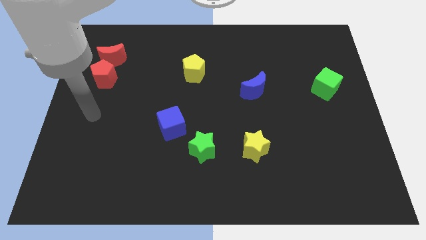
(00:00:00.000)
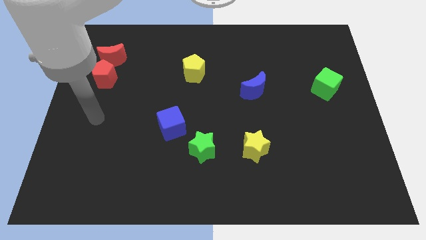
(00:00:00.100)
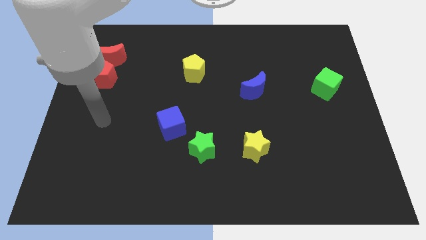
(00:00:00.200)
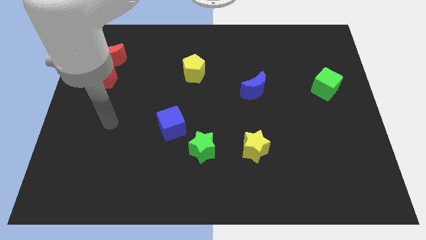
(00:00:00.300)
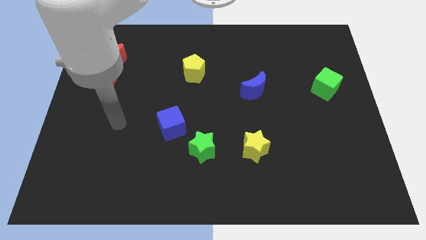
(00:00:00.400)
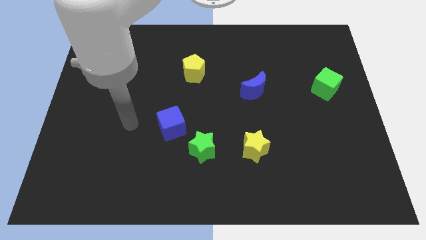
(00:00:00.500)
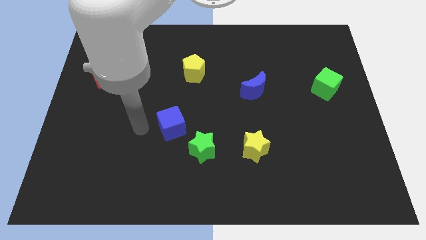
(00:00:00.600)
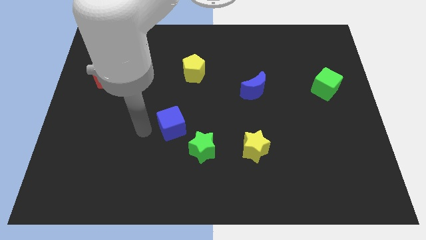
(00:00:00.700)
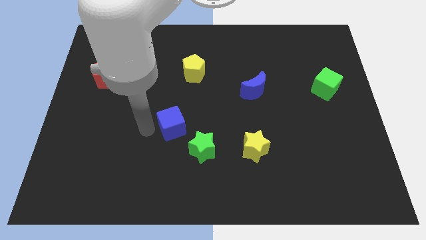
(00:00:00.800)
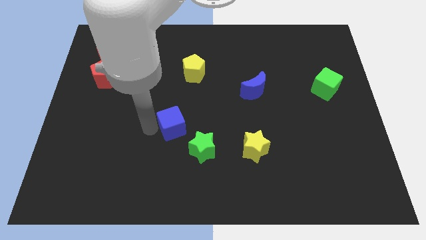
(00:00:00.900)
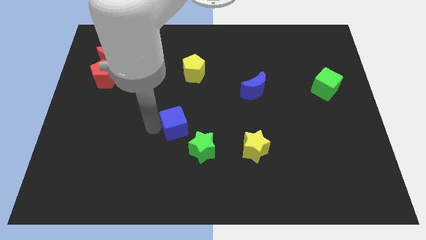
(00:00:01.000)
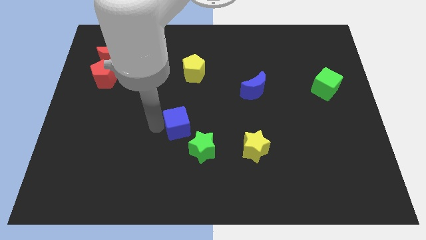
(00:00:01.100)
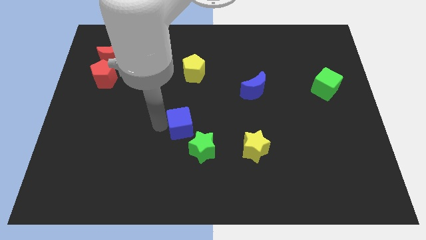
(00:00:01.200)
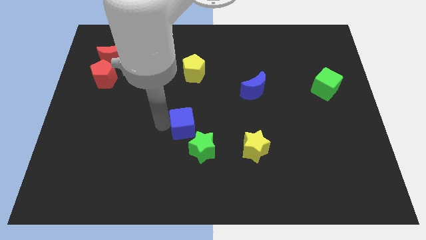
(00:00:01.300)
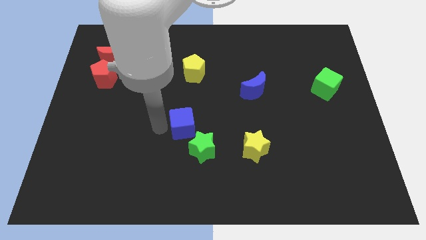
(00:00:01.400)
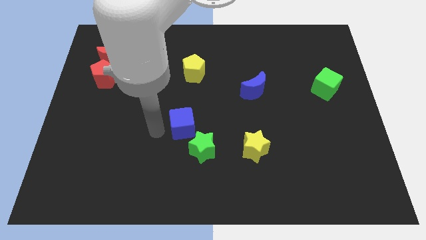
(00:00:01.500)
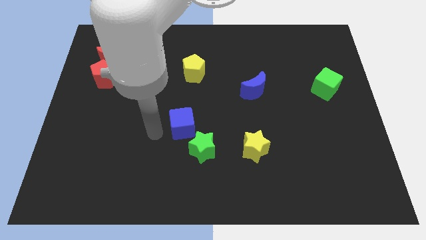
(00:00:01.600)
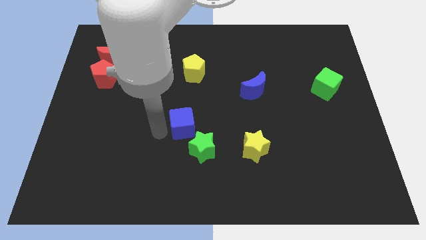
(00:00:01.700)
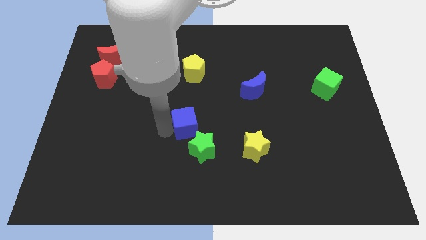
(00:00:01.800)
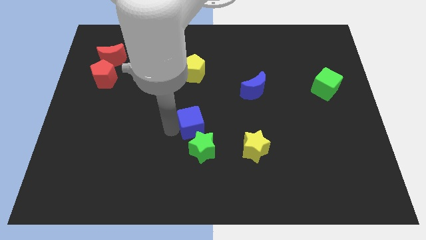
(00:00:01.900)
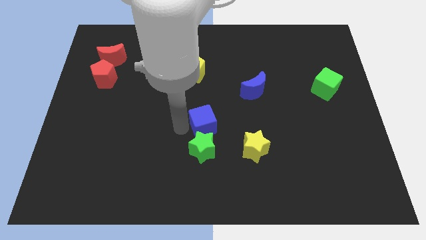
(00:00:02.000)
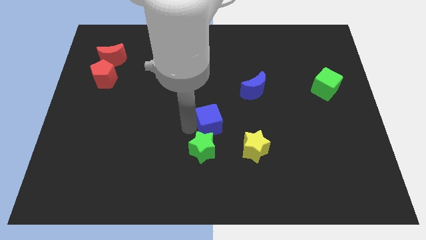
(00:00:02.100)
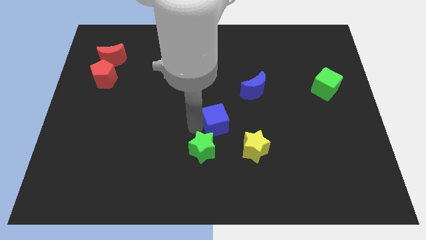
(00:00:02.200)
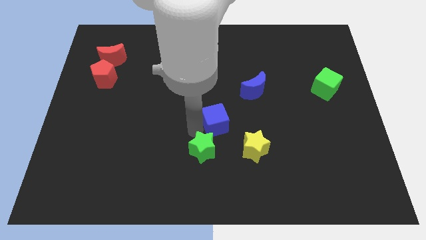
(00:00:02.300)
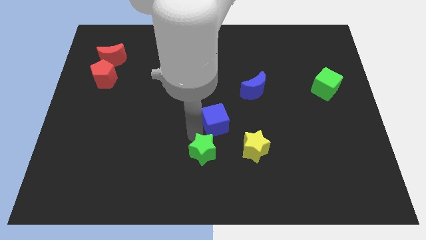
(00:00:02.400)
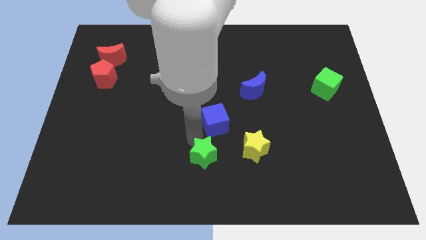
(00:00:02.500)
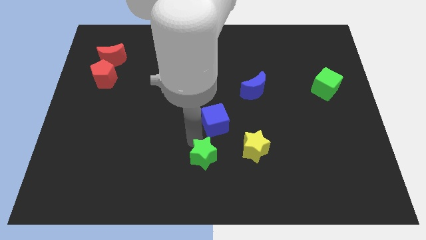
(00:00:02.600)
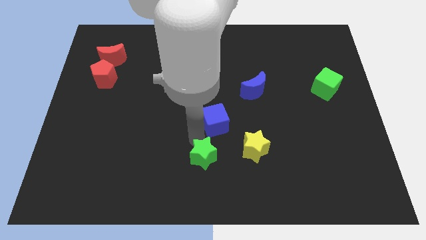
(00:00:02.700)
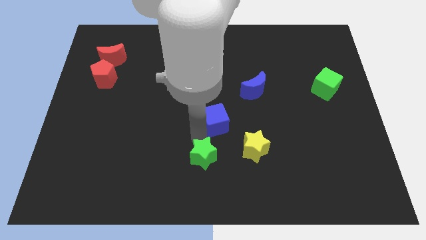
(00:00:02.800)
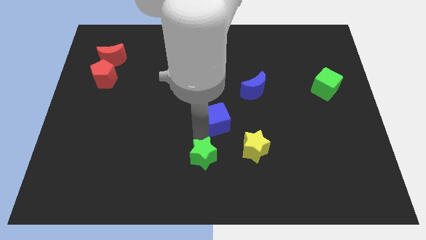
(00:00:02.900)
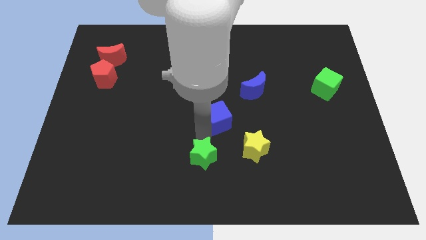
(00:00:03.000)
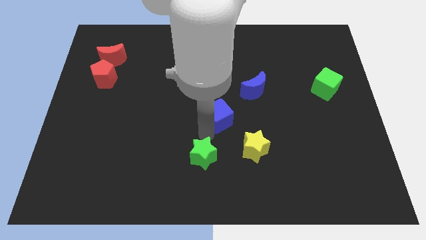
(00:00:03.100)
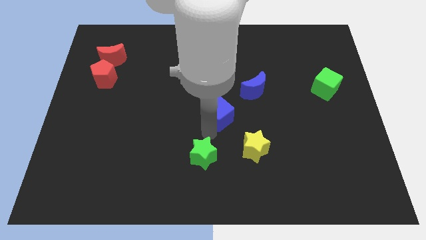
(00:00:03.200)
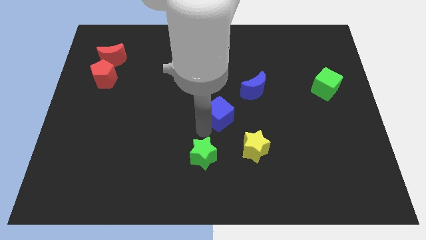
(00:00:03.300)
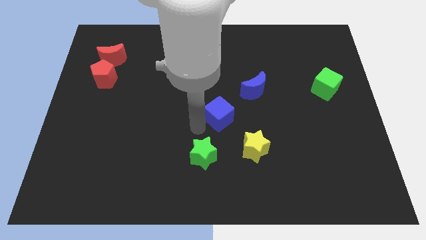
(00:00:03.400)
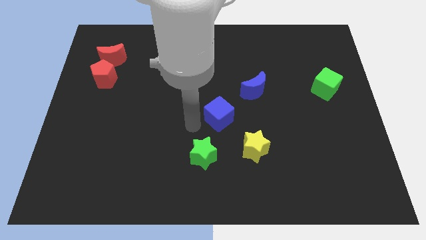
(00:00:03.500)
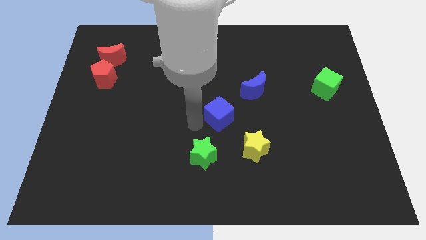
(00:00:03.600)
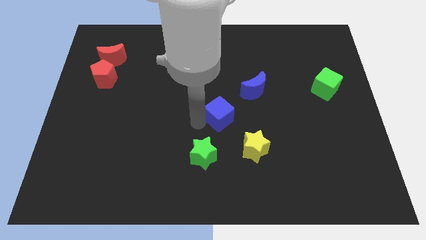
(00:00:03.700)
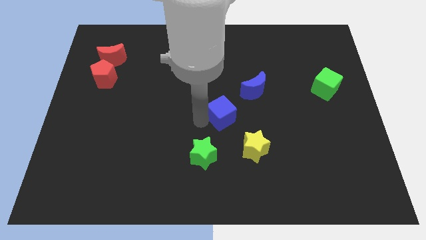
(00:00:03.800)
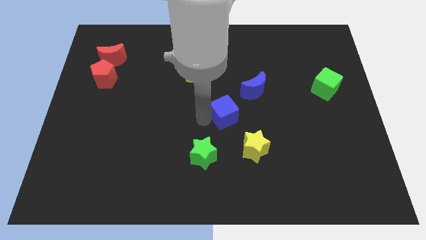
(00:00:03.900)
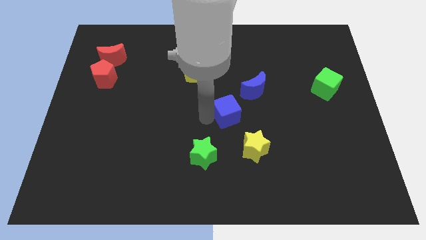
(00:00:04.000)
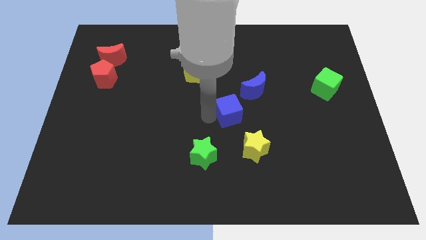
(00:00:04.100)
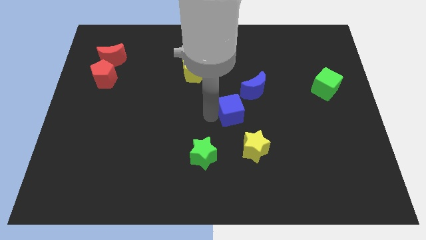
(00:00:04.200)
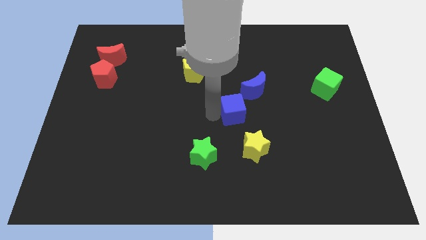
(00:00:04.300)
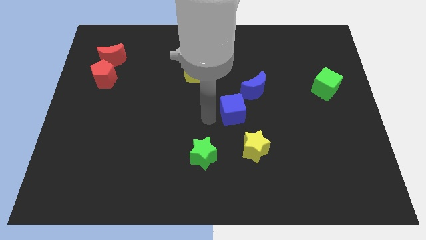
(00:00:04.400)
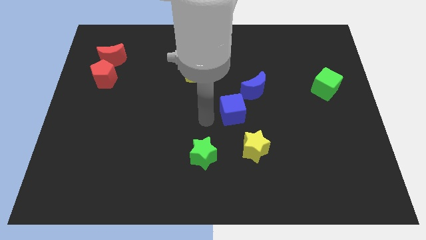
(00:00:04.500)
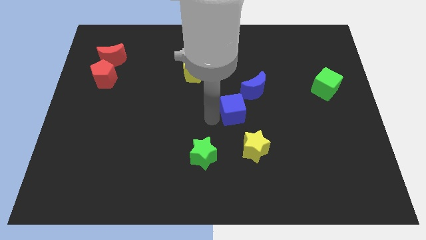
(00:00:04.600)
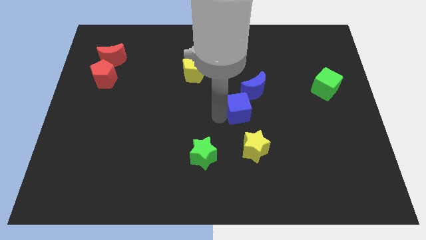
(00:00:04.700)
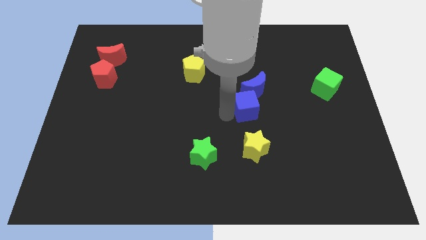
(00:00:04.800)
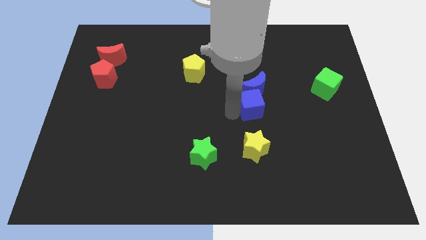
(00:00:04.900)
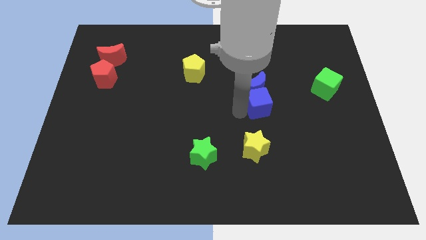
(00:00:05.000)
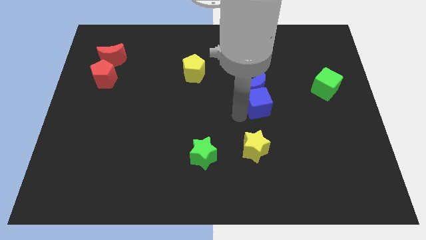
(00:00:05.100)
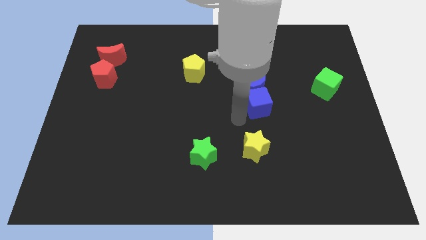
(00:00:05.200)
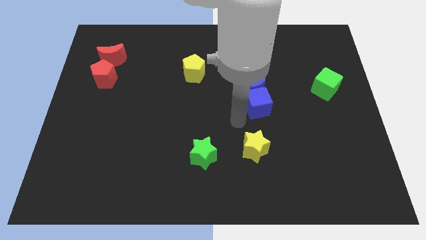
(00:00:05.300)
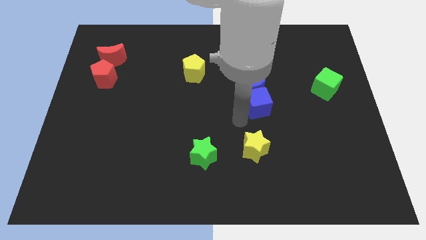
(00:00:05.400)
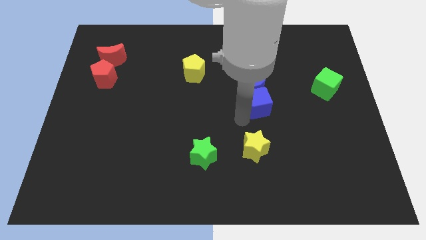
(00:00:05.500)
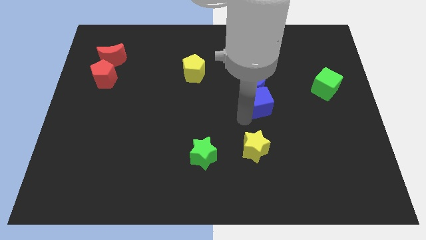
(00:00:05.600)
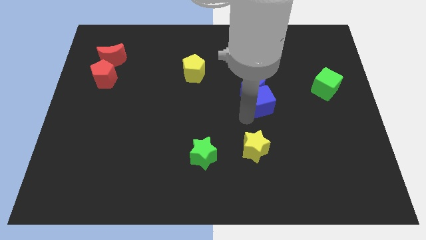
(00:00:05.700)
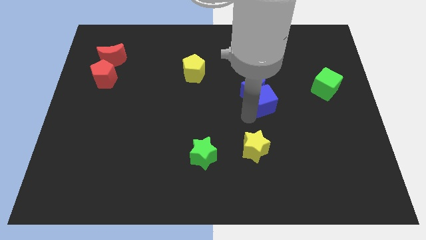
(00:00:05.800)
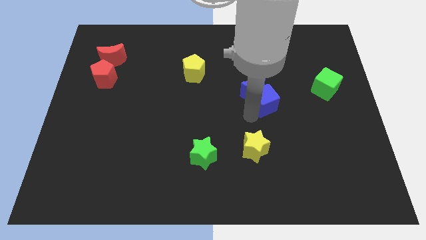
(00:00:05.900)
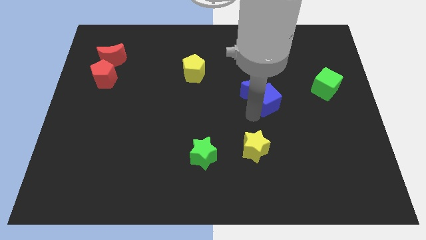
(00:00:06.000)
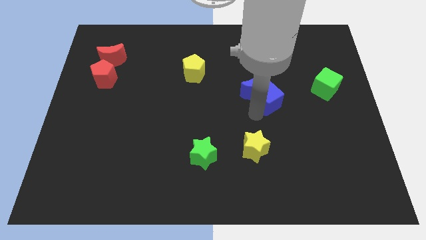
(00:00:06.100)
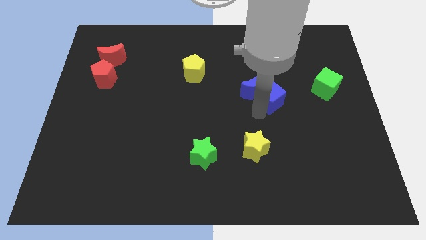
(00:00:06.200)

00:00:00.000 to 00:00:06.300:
move the blue cube to the left side of the green cube

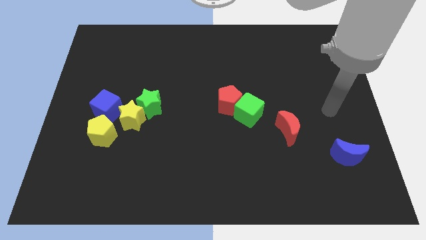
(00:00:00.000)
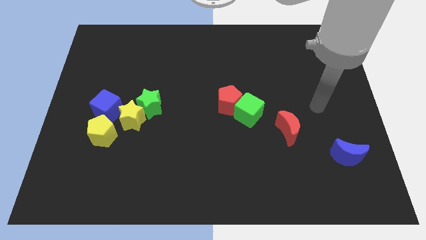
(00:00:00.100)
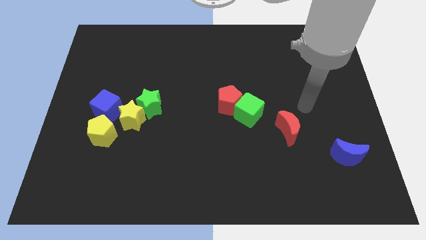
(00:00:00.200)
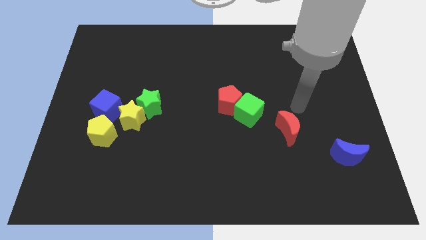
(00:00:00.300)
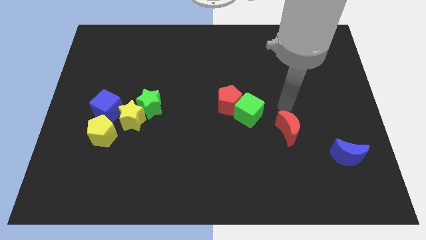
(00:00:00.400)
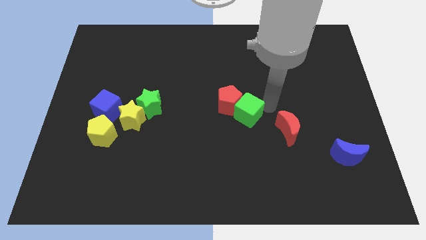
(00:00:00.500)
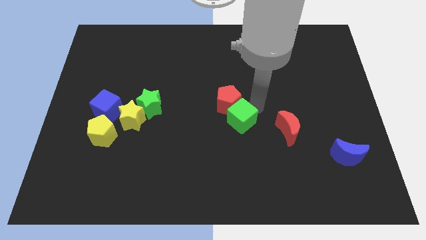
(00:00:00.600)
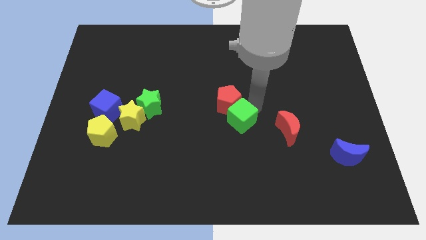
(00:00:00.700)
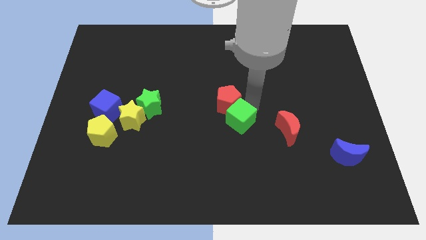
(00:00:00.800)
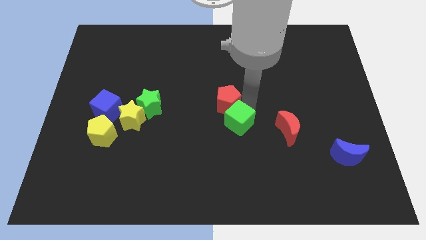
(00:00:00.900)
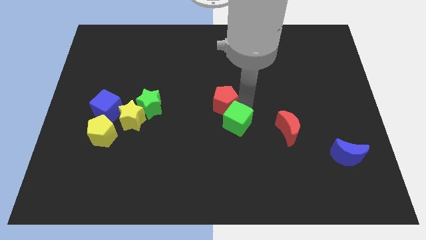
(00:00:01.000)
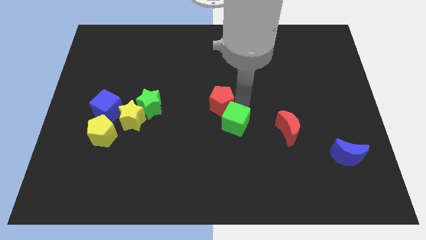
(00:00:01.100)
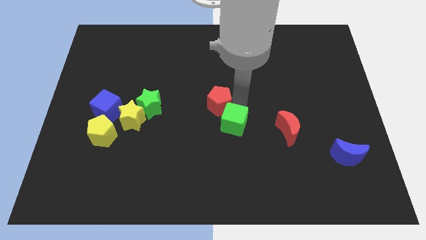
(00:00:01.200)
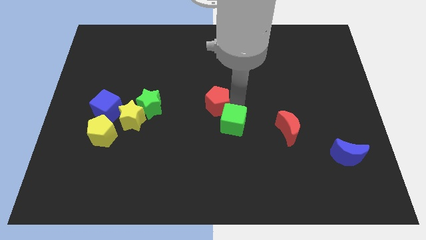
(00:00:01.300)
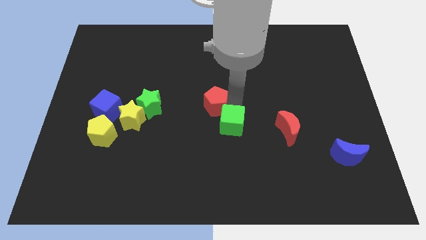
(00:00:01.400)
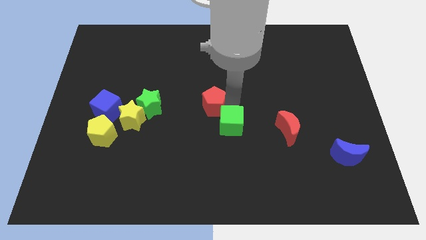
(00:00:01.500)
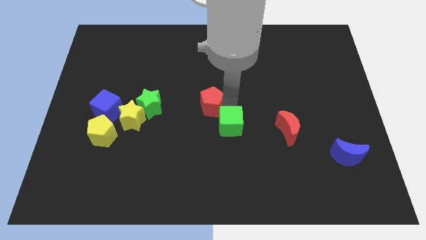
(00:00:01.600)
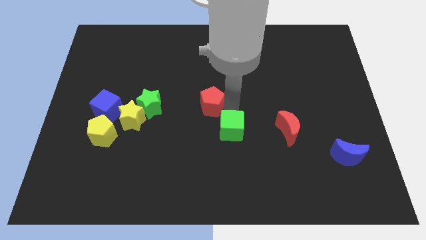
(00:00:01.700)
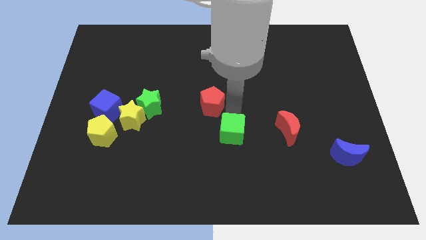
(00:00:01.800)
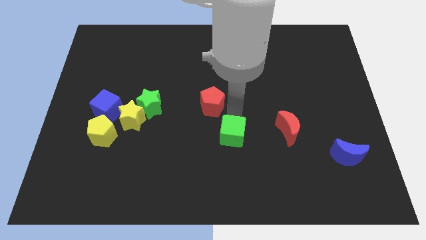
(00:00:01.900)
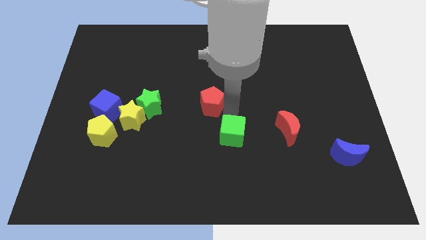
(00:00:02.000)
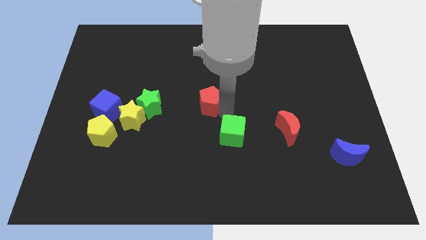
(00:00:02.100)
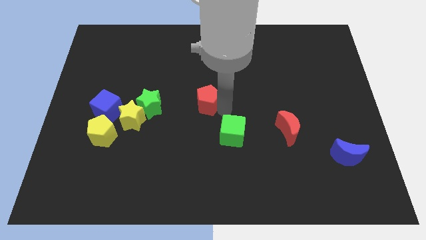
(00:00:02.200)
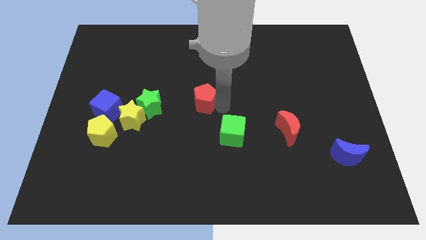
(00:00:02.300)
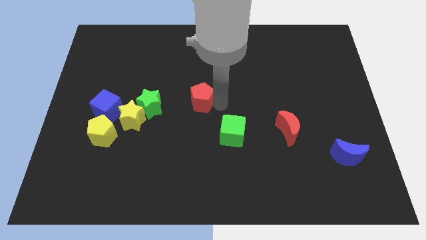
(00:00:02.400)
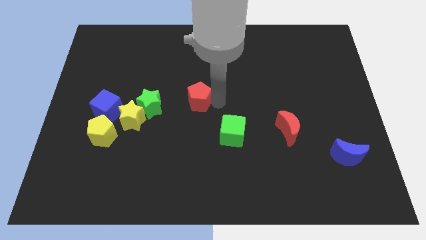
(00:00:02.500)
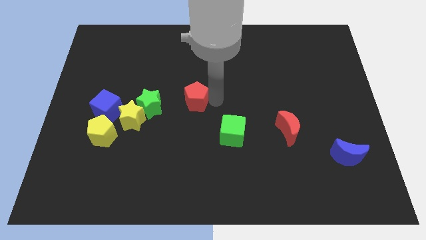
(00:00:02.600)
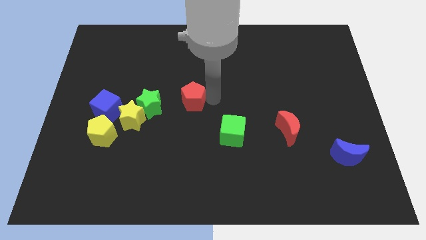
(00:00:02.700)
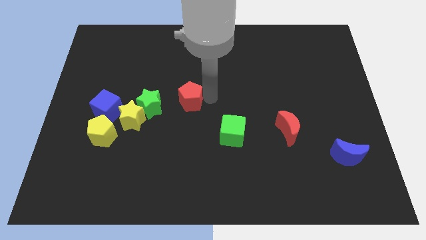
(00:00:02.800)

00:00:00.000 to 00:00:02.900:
slide the red pentagon to the top right of the green star
